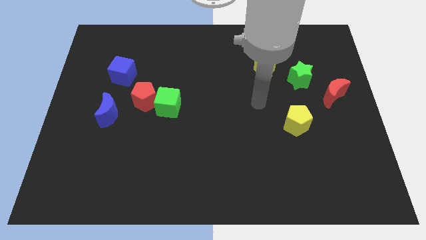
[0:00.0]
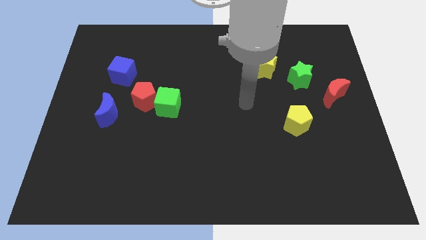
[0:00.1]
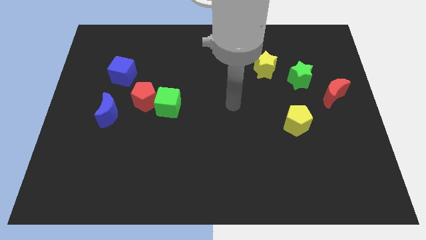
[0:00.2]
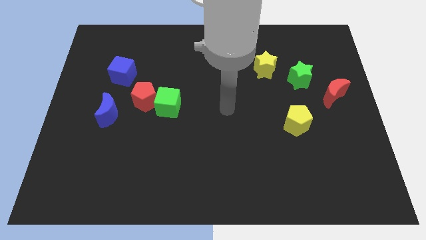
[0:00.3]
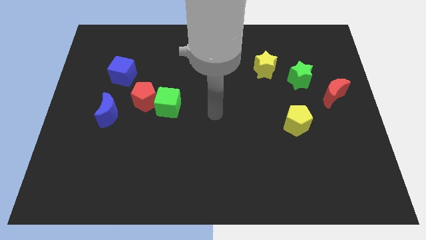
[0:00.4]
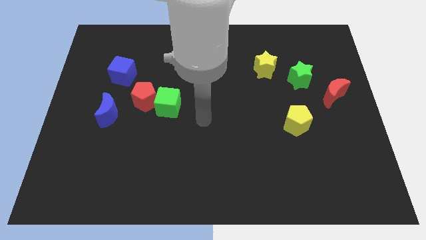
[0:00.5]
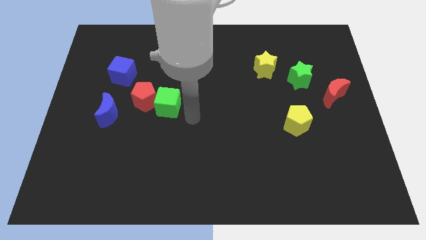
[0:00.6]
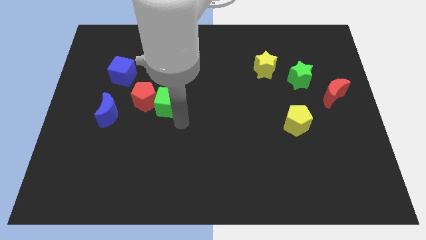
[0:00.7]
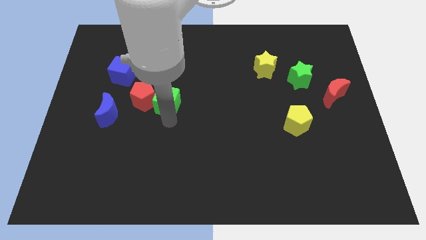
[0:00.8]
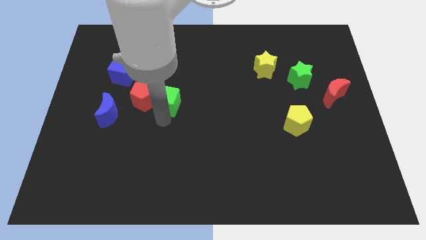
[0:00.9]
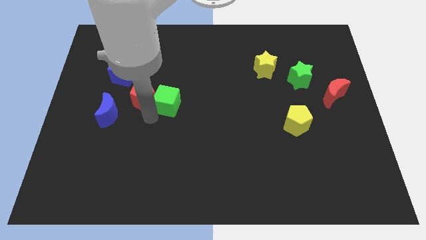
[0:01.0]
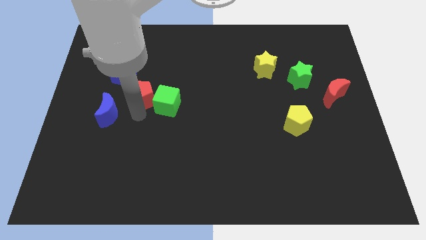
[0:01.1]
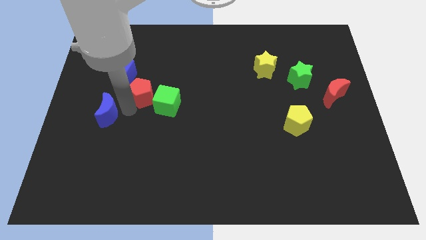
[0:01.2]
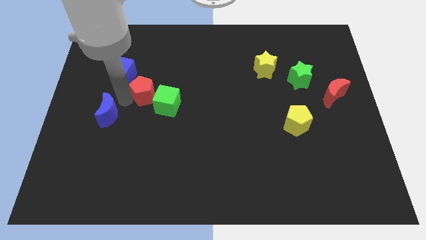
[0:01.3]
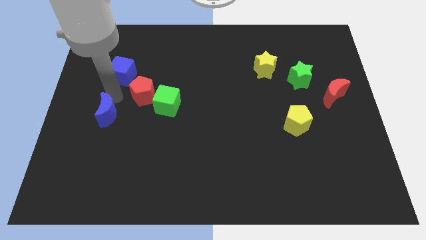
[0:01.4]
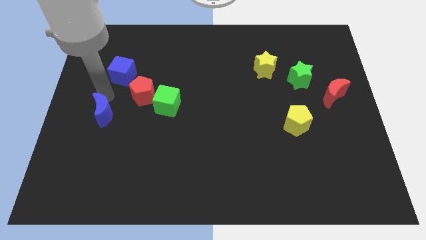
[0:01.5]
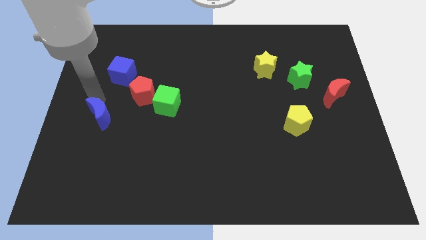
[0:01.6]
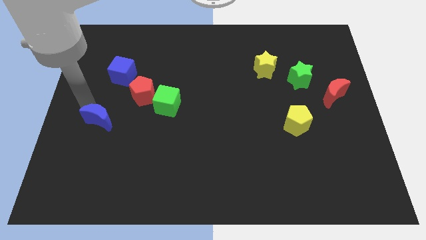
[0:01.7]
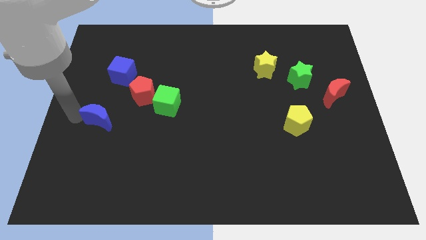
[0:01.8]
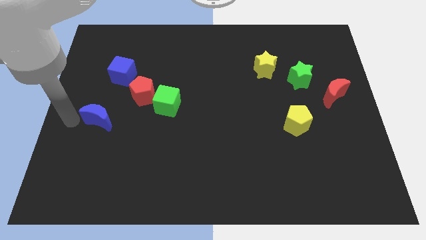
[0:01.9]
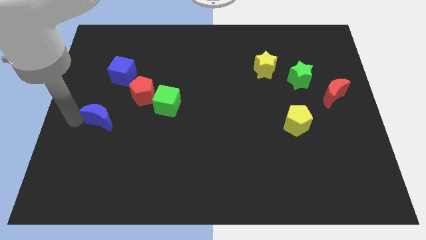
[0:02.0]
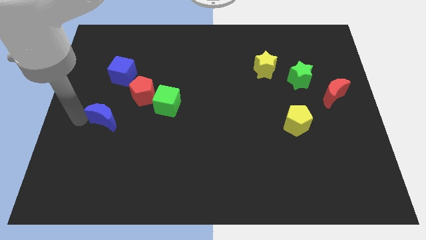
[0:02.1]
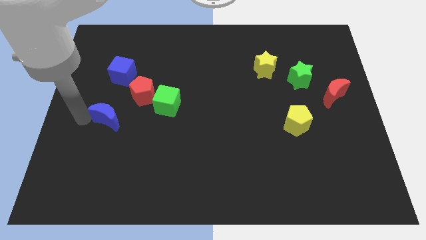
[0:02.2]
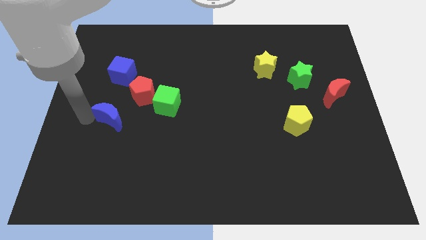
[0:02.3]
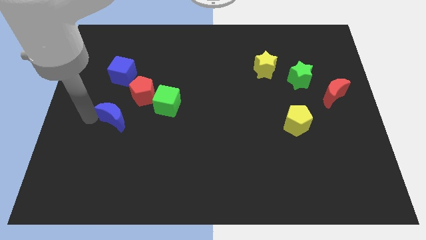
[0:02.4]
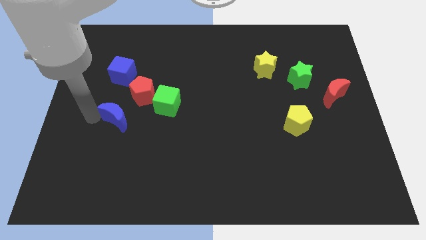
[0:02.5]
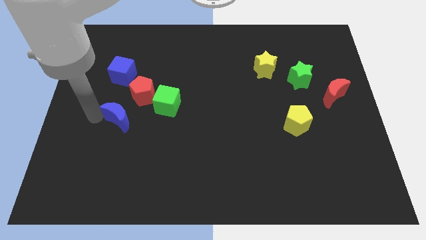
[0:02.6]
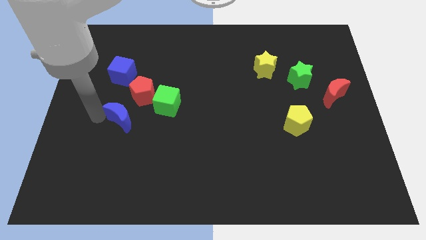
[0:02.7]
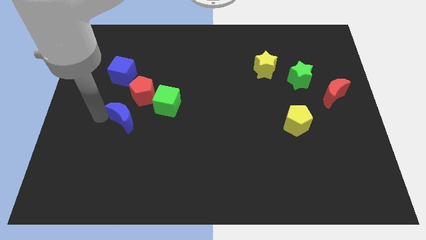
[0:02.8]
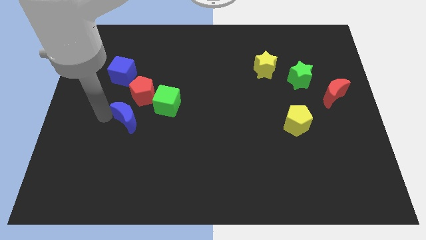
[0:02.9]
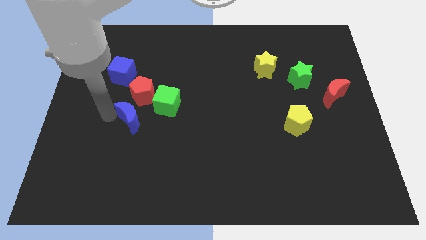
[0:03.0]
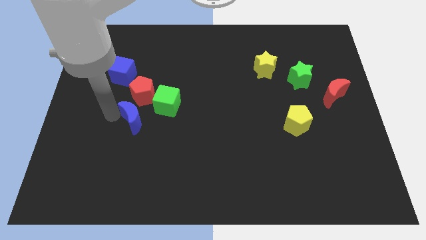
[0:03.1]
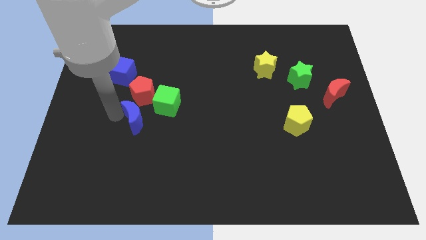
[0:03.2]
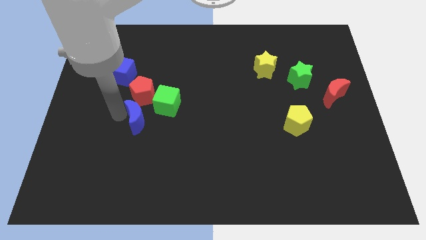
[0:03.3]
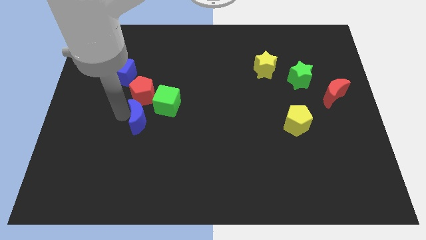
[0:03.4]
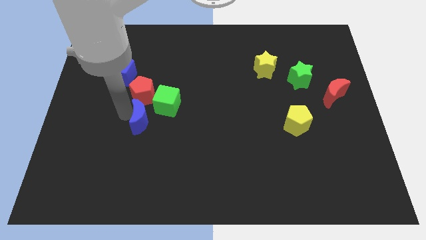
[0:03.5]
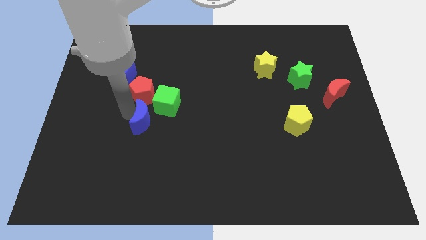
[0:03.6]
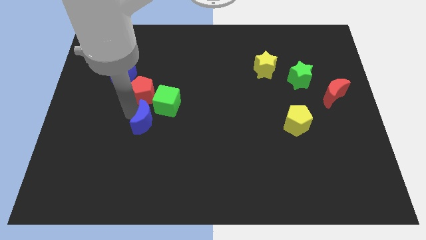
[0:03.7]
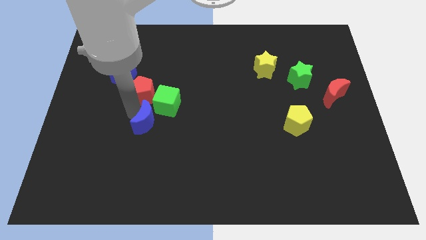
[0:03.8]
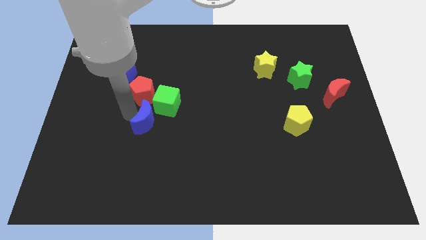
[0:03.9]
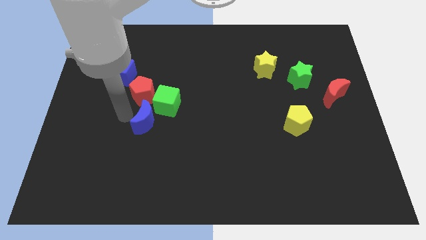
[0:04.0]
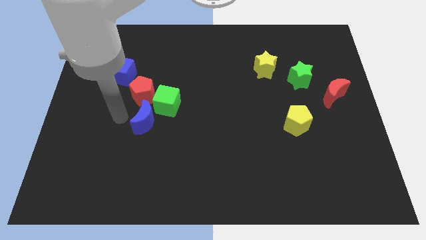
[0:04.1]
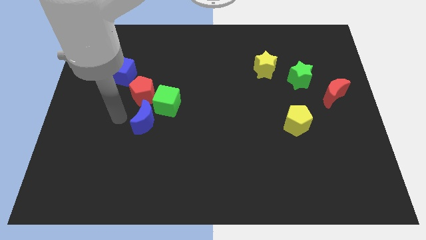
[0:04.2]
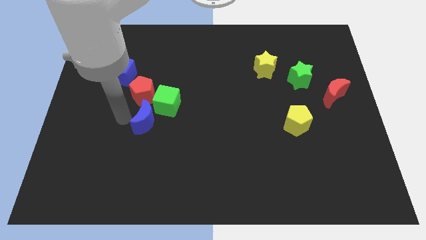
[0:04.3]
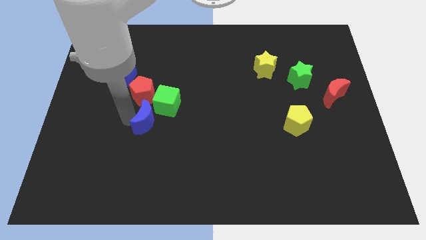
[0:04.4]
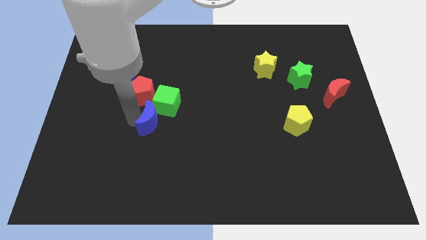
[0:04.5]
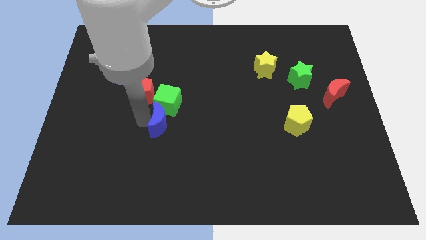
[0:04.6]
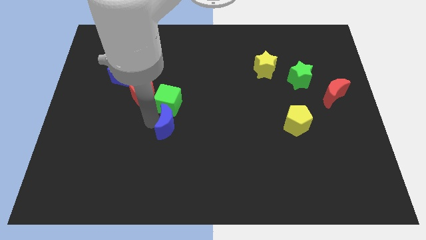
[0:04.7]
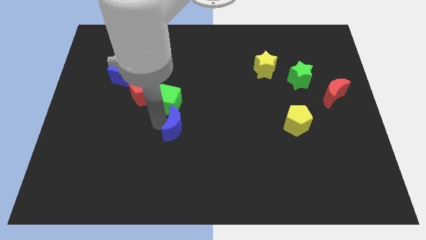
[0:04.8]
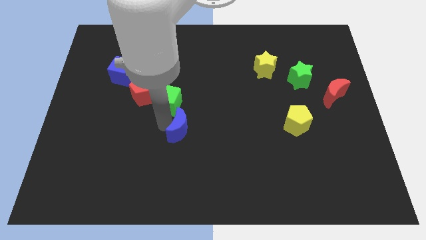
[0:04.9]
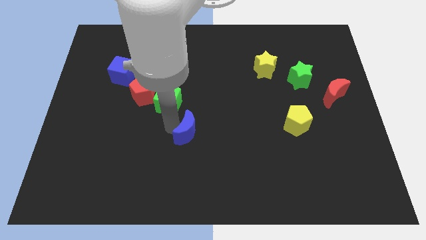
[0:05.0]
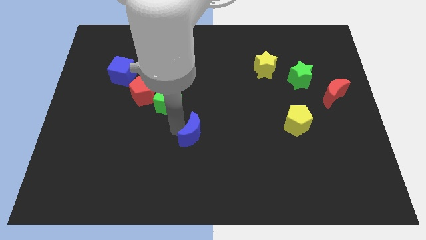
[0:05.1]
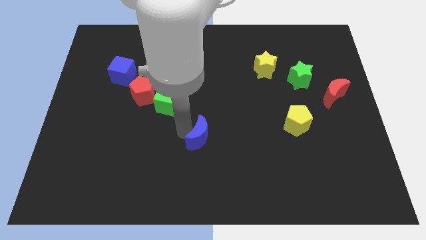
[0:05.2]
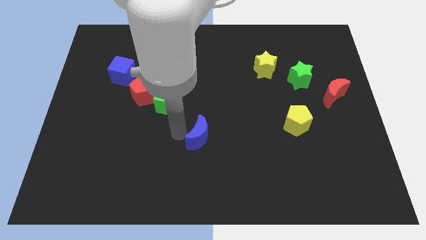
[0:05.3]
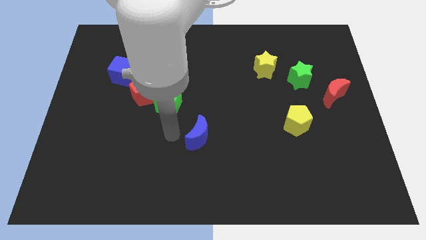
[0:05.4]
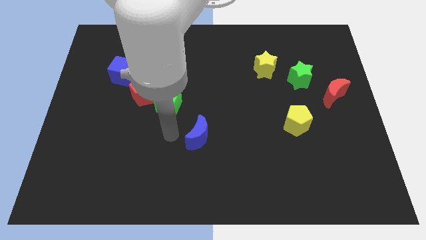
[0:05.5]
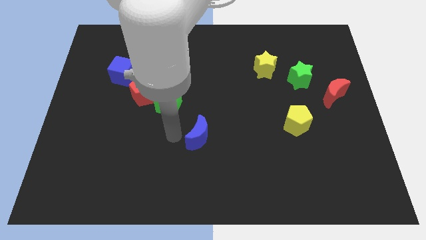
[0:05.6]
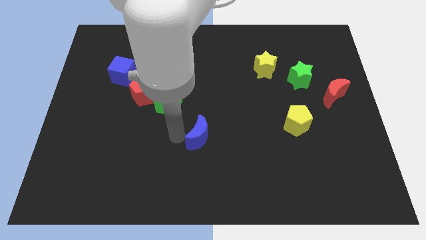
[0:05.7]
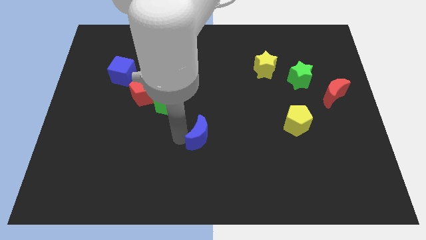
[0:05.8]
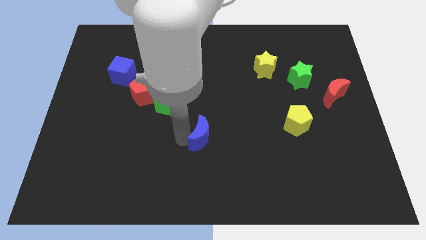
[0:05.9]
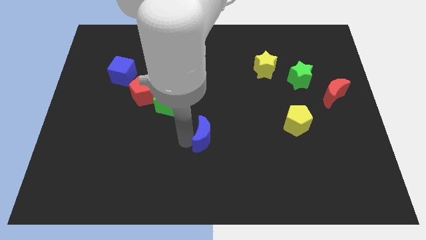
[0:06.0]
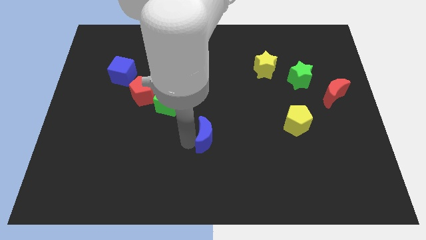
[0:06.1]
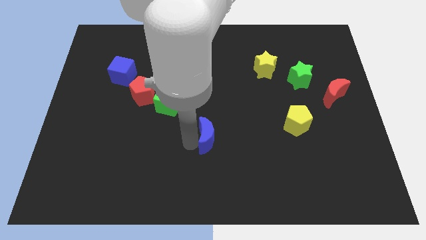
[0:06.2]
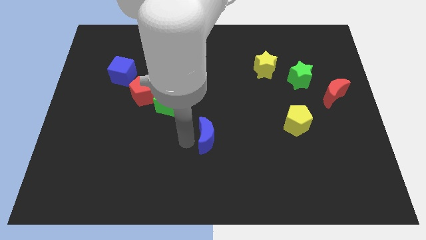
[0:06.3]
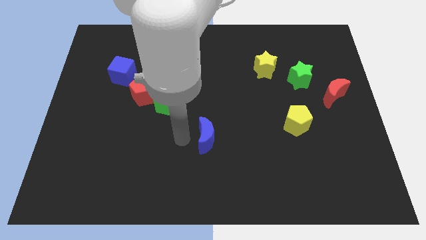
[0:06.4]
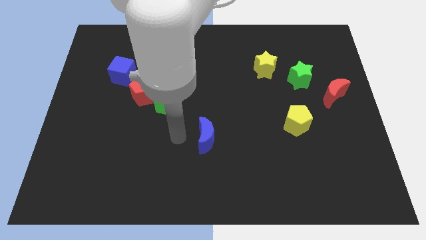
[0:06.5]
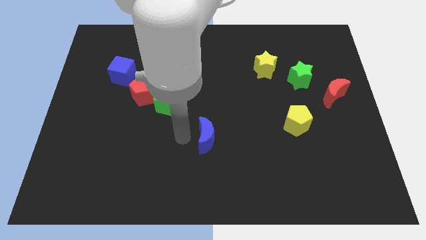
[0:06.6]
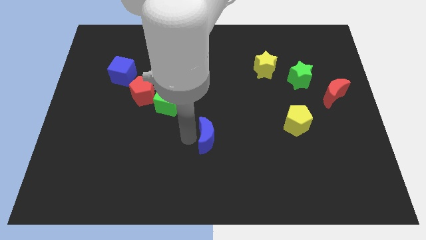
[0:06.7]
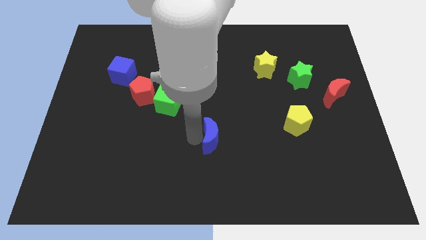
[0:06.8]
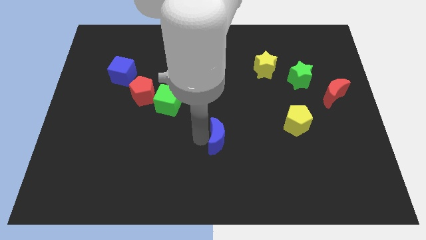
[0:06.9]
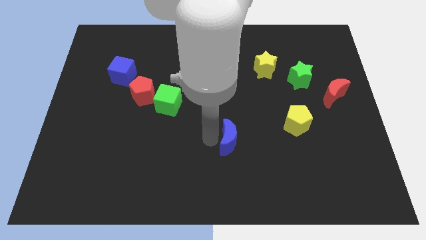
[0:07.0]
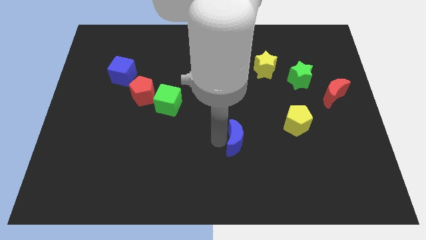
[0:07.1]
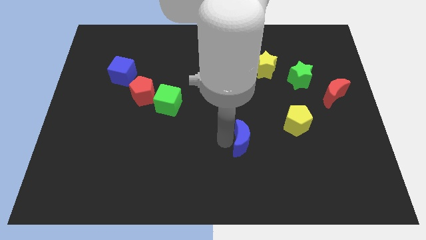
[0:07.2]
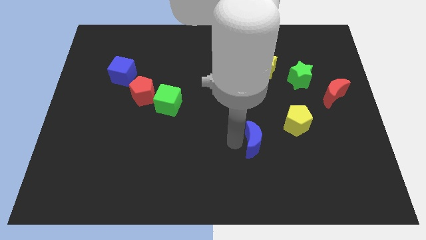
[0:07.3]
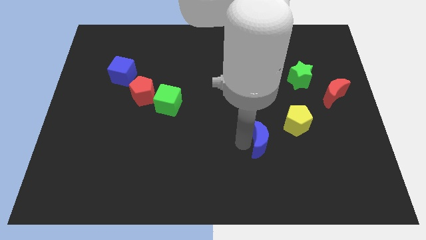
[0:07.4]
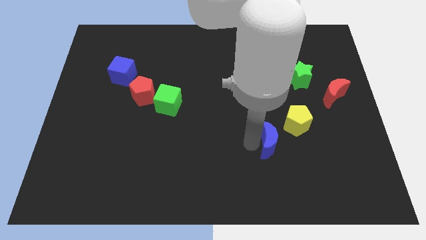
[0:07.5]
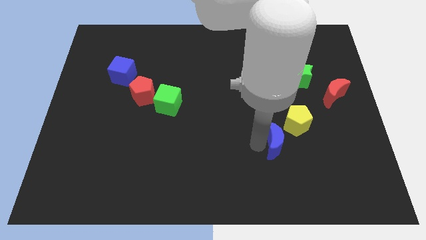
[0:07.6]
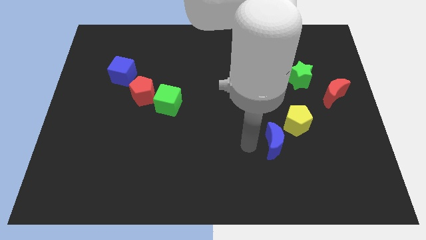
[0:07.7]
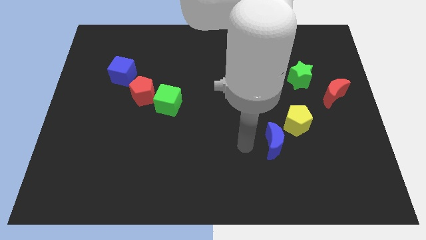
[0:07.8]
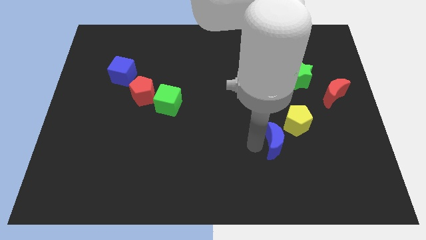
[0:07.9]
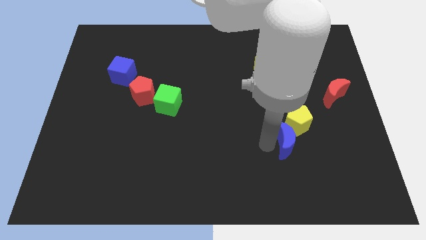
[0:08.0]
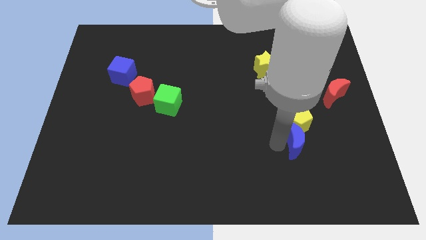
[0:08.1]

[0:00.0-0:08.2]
push the blue moon to the bottom right side of the yellow pentagon
